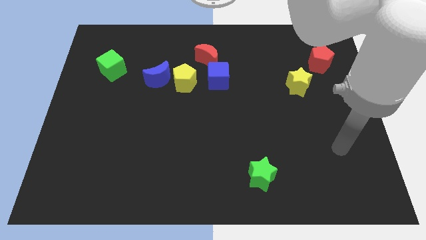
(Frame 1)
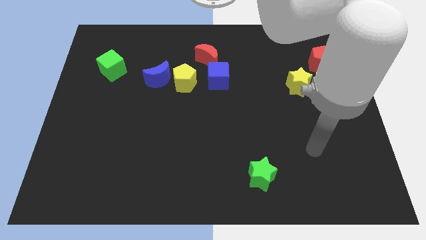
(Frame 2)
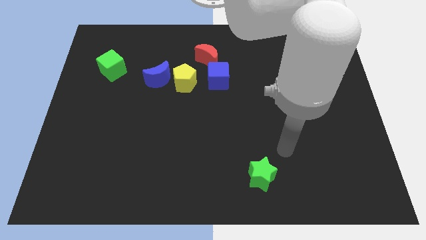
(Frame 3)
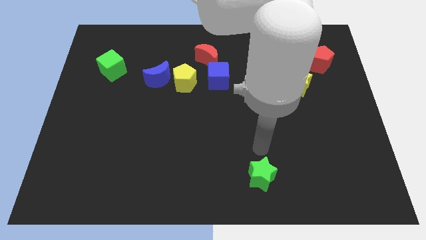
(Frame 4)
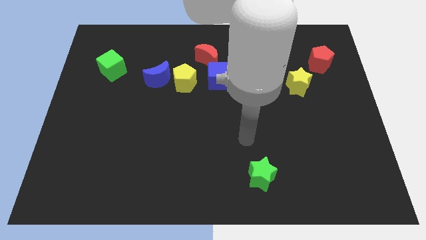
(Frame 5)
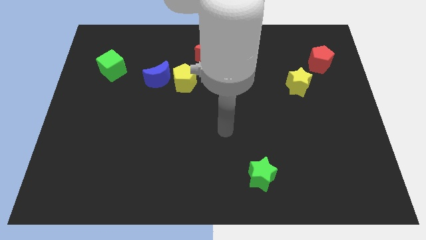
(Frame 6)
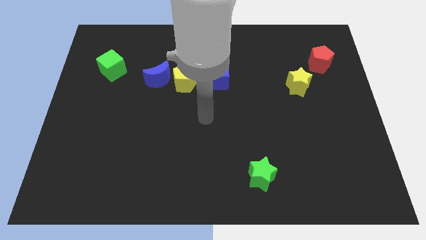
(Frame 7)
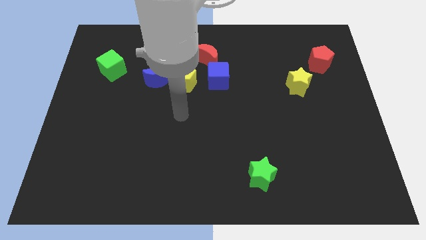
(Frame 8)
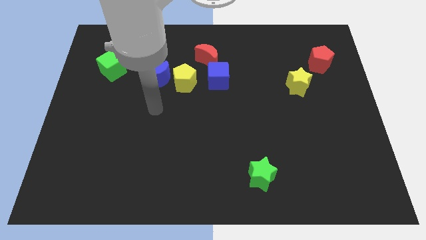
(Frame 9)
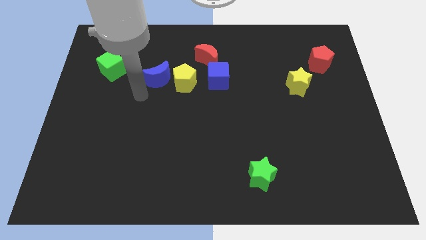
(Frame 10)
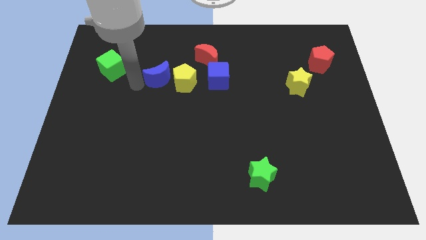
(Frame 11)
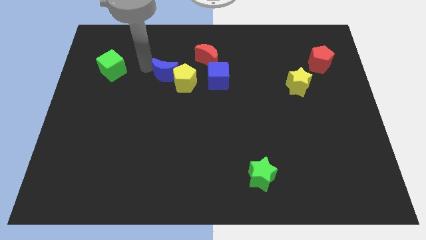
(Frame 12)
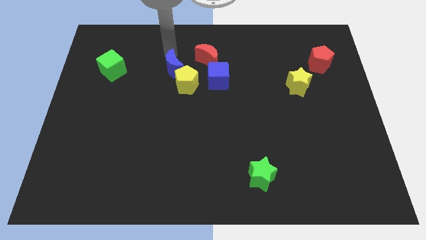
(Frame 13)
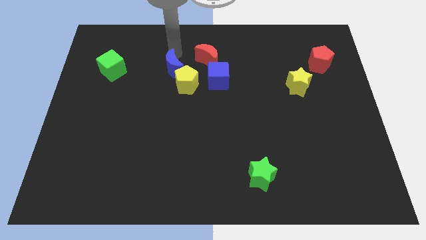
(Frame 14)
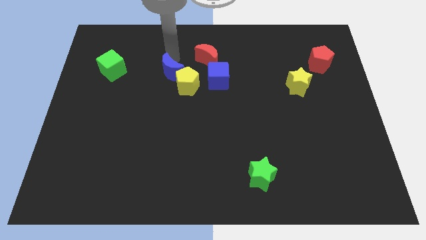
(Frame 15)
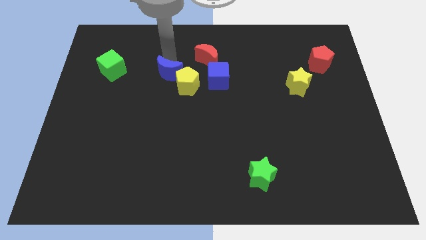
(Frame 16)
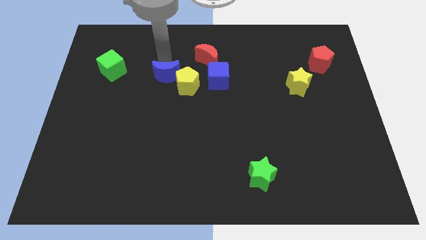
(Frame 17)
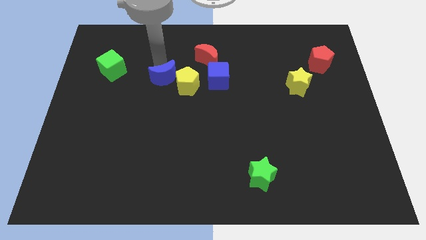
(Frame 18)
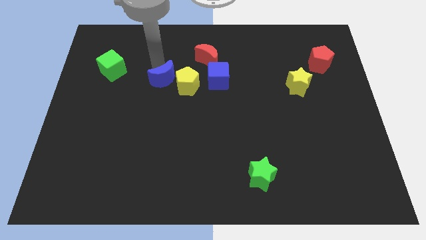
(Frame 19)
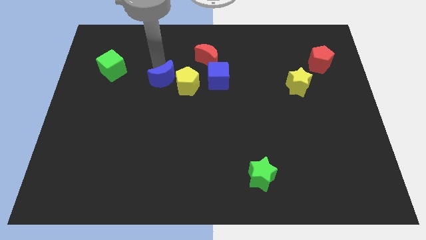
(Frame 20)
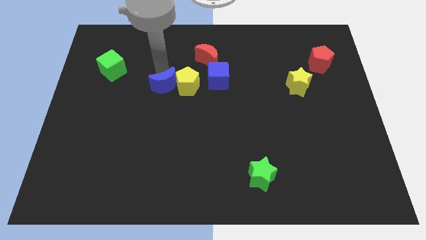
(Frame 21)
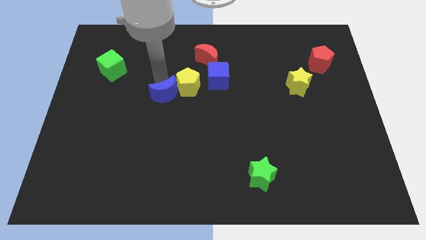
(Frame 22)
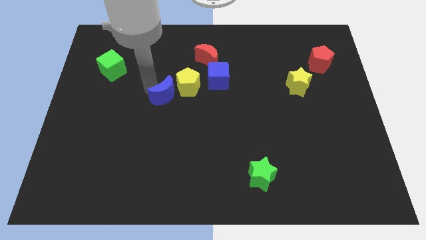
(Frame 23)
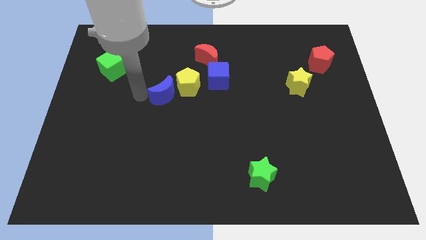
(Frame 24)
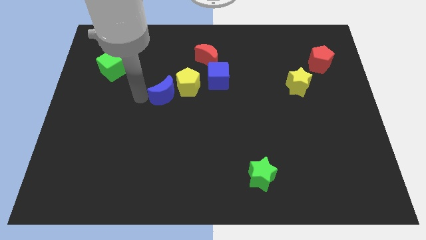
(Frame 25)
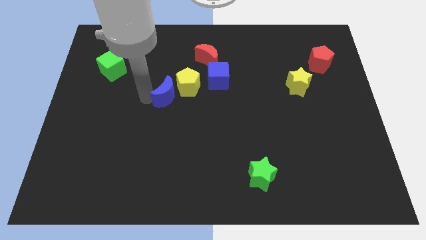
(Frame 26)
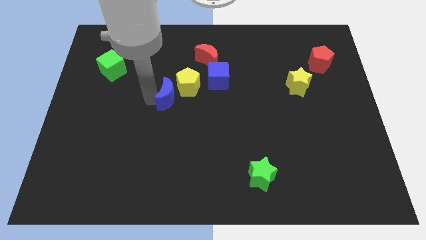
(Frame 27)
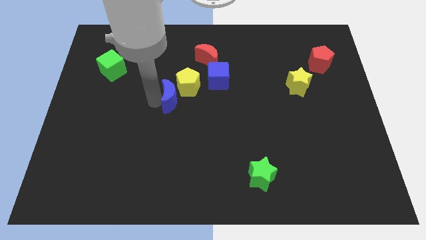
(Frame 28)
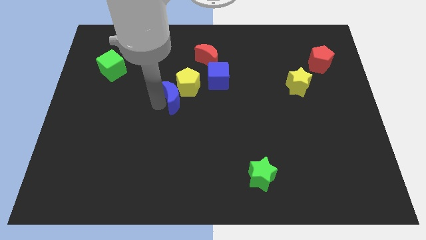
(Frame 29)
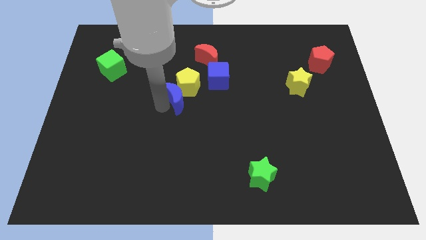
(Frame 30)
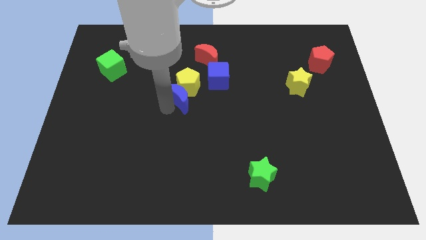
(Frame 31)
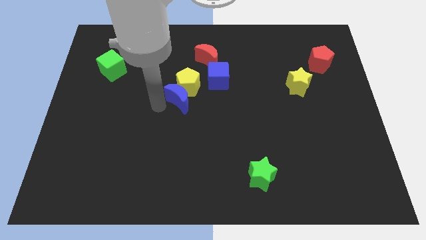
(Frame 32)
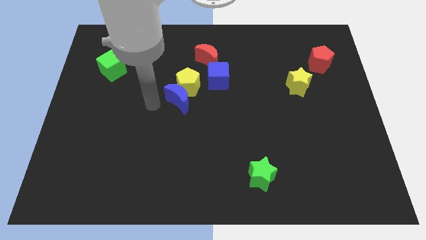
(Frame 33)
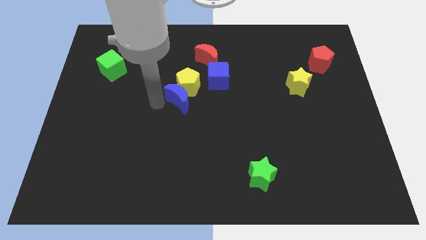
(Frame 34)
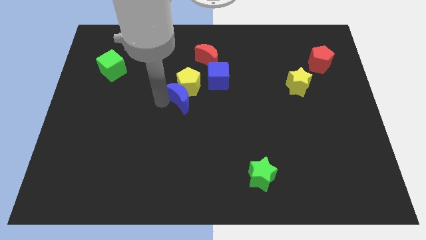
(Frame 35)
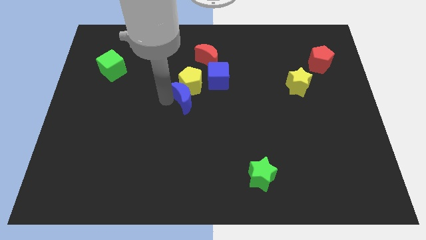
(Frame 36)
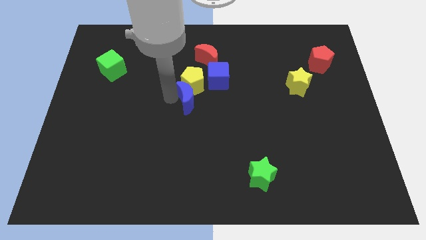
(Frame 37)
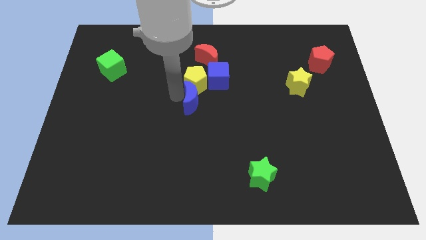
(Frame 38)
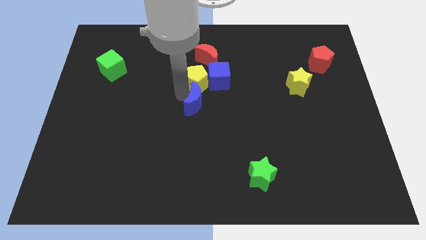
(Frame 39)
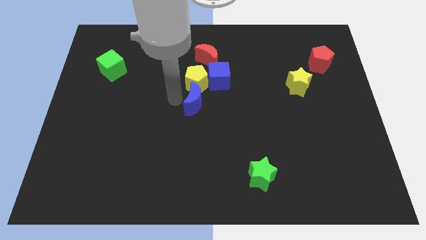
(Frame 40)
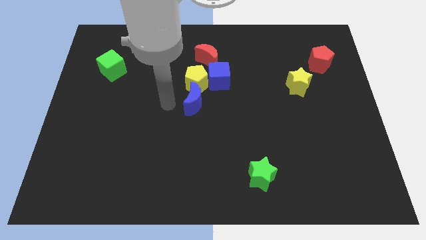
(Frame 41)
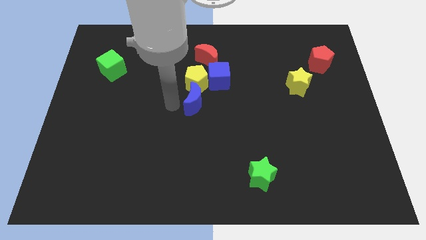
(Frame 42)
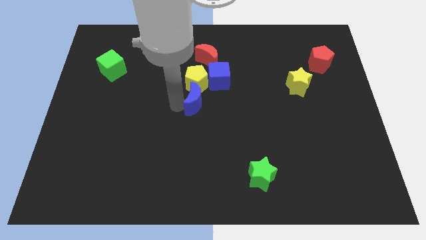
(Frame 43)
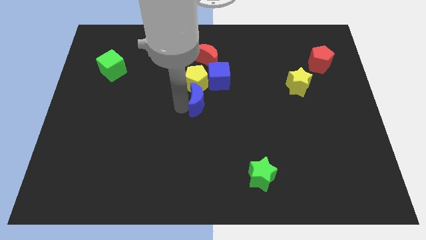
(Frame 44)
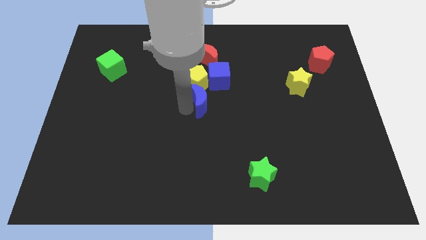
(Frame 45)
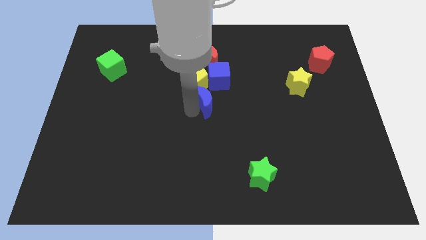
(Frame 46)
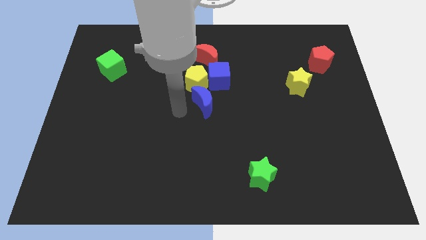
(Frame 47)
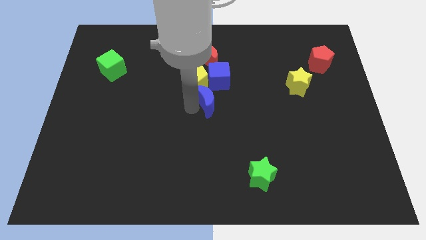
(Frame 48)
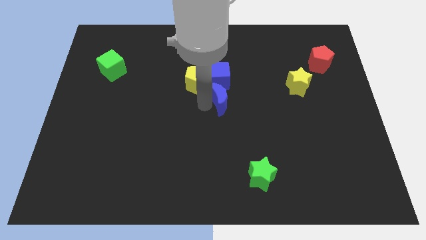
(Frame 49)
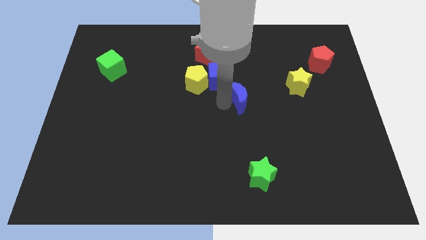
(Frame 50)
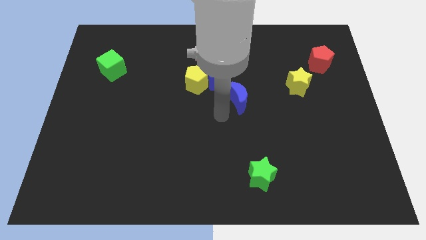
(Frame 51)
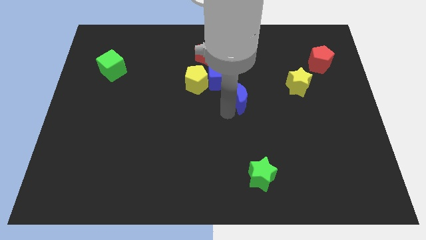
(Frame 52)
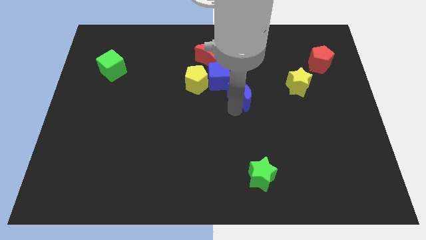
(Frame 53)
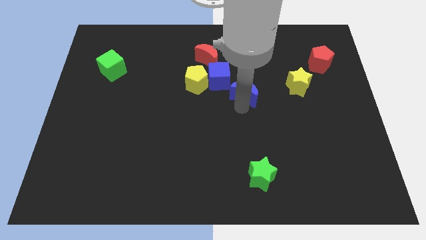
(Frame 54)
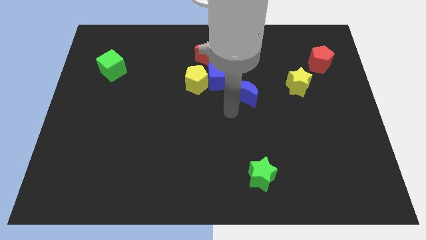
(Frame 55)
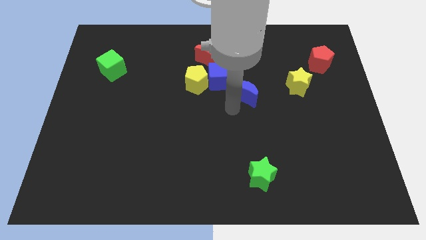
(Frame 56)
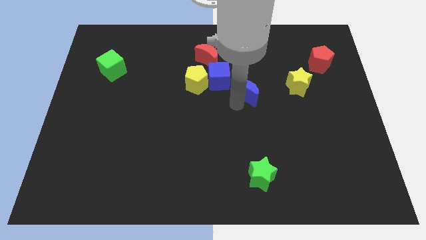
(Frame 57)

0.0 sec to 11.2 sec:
put the blue moon to the right side of the blue cube
